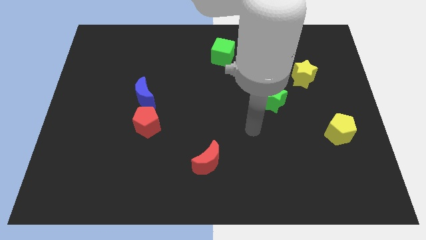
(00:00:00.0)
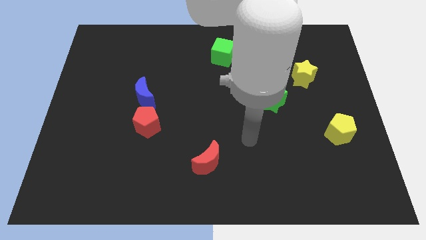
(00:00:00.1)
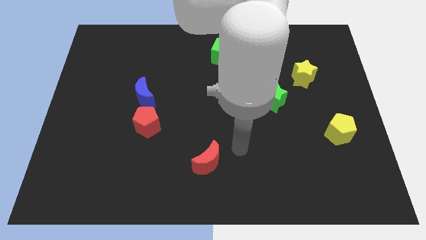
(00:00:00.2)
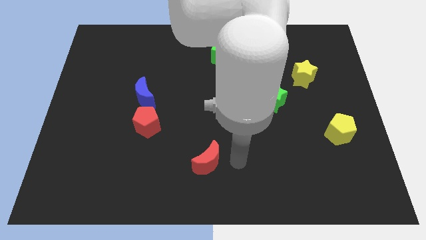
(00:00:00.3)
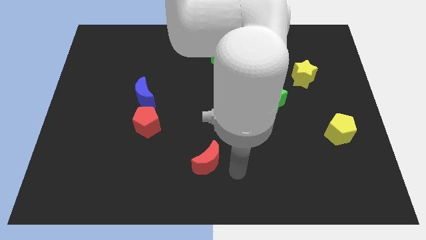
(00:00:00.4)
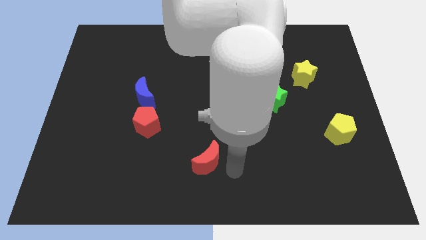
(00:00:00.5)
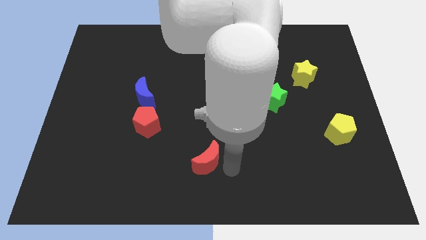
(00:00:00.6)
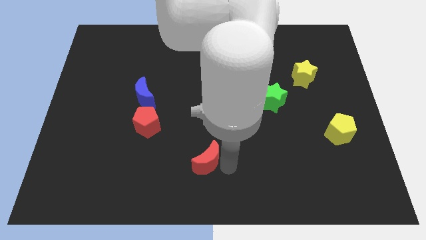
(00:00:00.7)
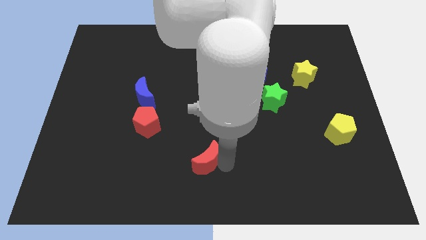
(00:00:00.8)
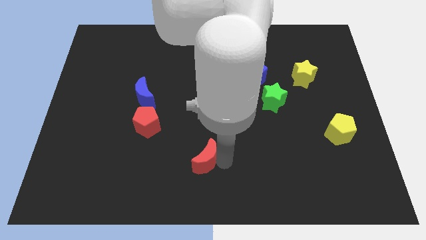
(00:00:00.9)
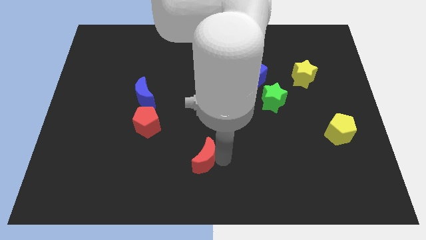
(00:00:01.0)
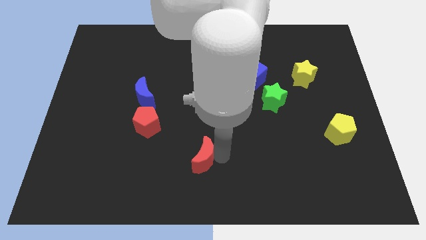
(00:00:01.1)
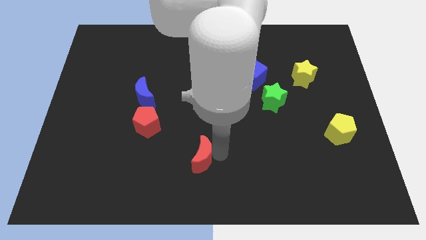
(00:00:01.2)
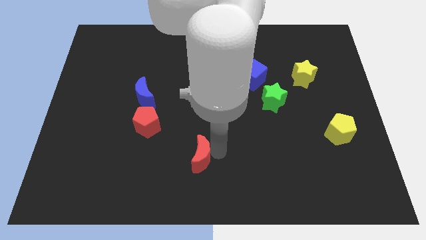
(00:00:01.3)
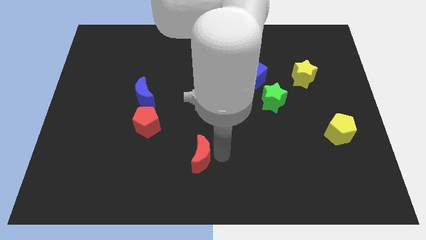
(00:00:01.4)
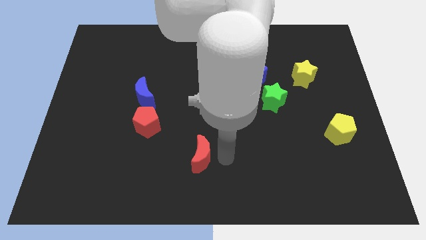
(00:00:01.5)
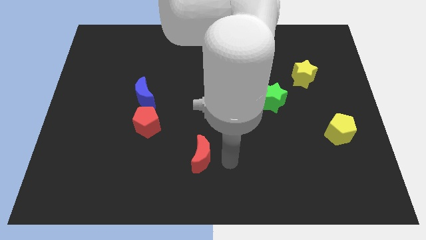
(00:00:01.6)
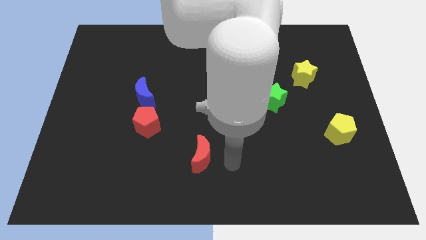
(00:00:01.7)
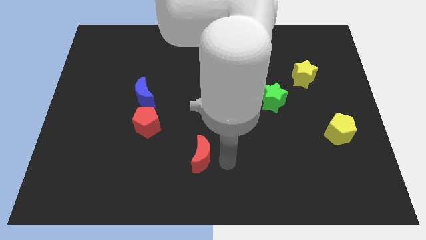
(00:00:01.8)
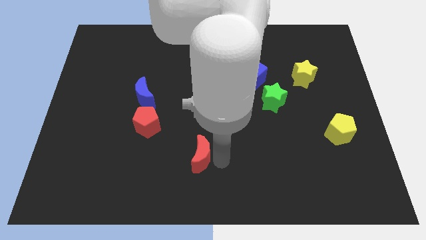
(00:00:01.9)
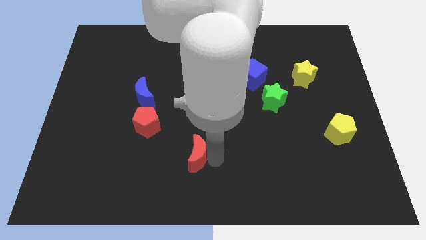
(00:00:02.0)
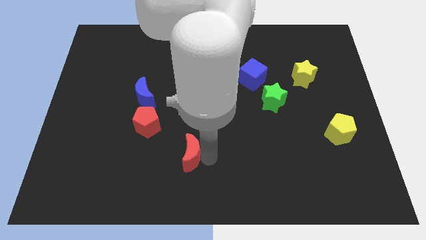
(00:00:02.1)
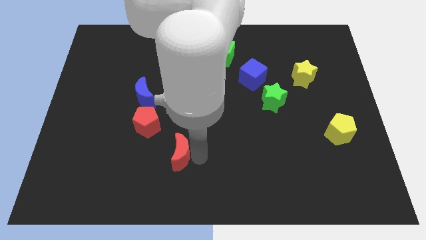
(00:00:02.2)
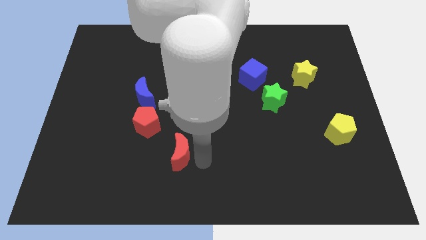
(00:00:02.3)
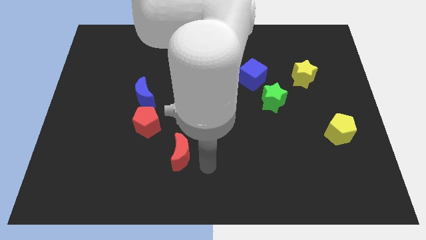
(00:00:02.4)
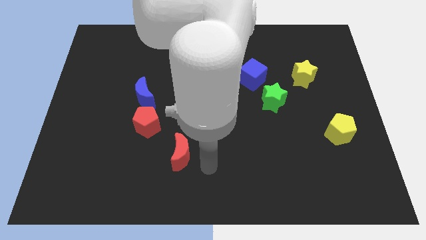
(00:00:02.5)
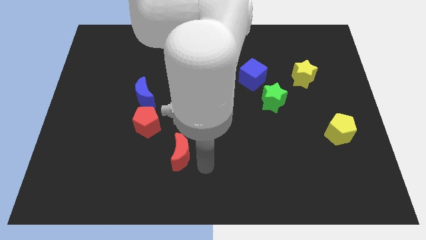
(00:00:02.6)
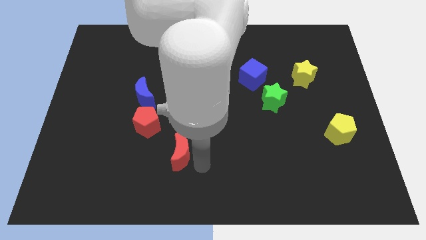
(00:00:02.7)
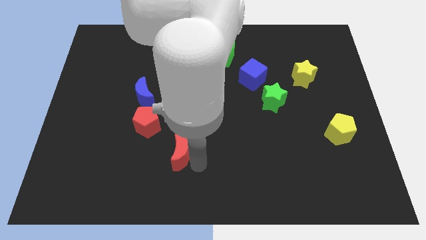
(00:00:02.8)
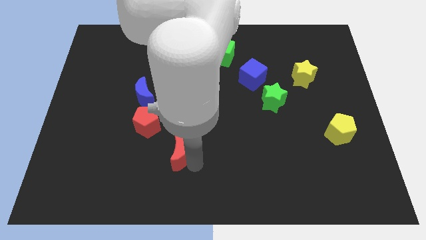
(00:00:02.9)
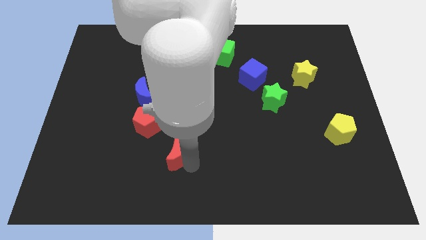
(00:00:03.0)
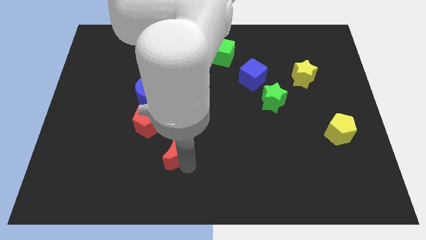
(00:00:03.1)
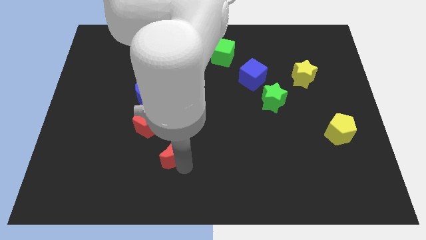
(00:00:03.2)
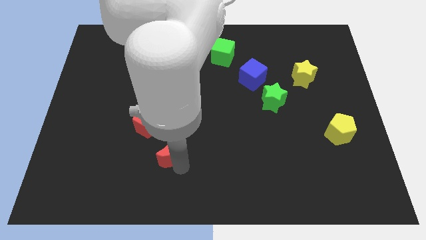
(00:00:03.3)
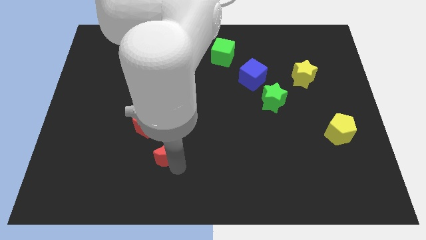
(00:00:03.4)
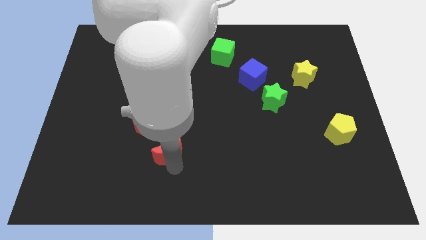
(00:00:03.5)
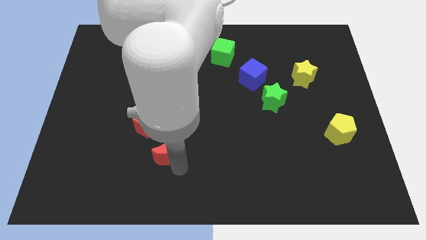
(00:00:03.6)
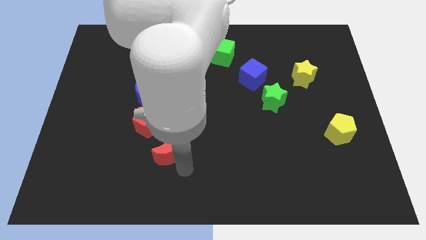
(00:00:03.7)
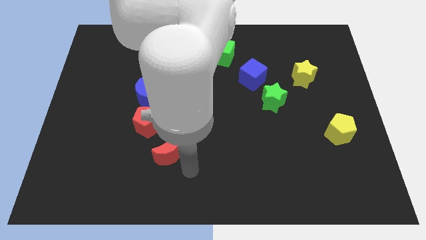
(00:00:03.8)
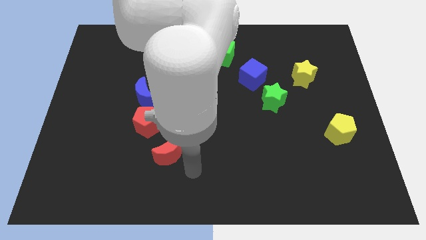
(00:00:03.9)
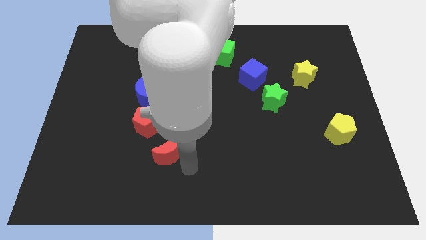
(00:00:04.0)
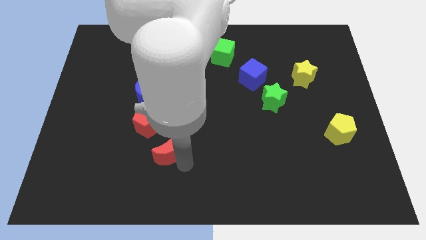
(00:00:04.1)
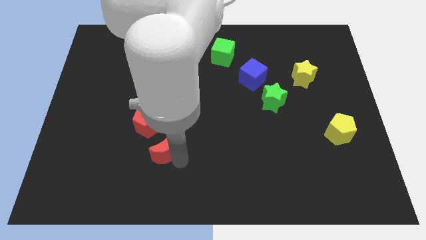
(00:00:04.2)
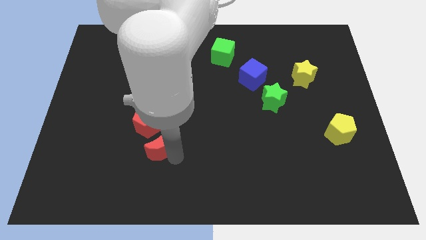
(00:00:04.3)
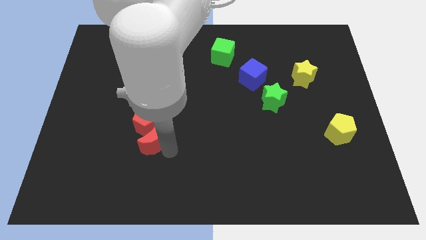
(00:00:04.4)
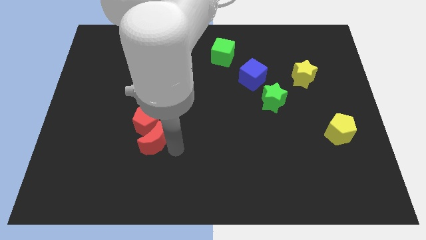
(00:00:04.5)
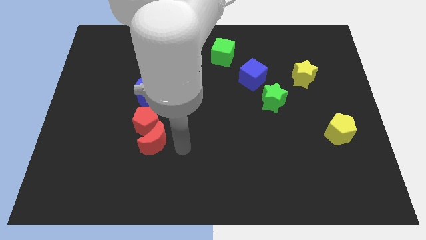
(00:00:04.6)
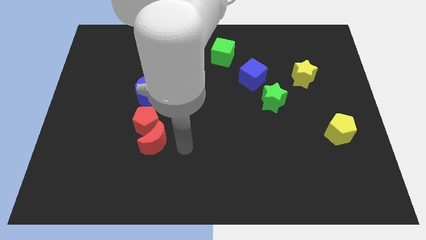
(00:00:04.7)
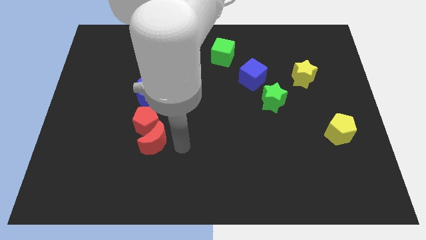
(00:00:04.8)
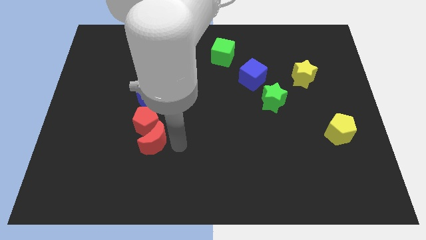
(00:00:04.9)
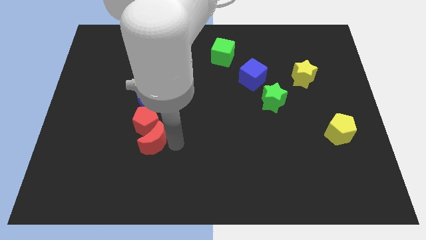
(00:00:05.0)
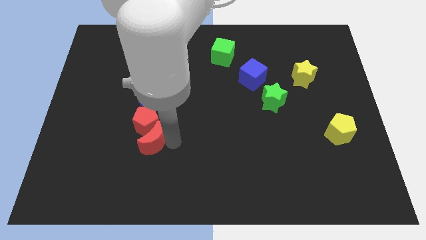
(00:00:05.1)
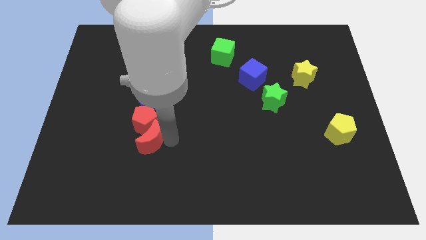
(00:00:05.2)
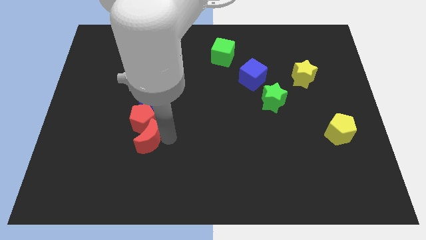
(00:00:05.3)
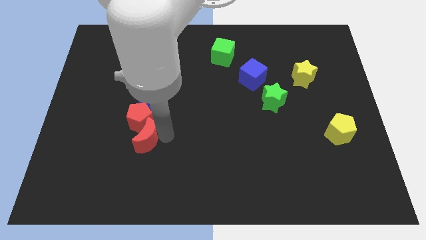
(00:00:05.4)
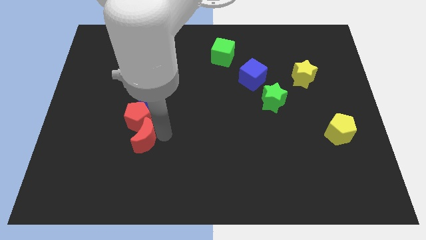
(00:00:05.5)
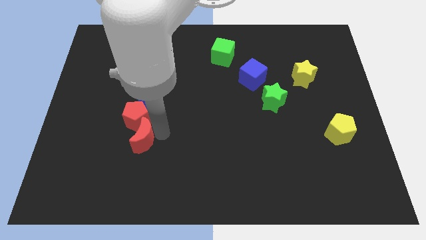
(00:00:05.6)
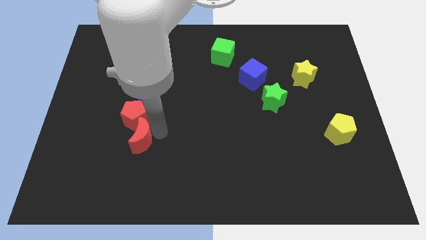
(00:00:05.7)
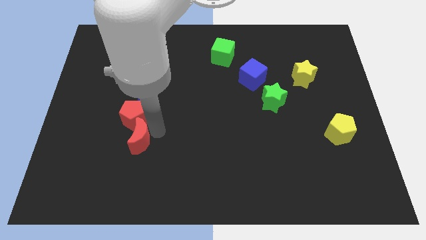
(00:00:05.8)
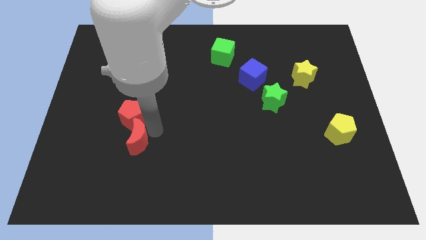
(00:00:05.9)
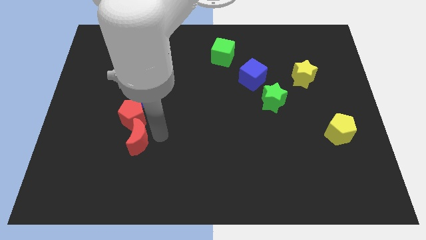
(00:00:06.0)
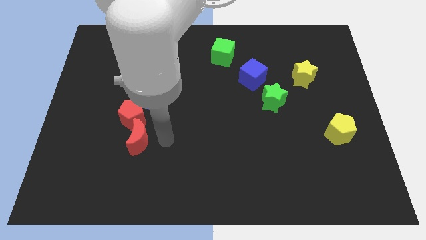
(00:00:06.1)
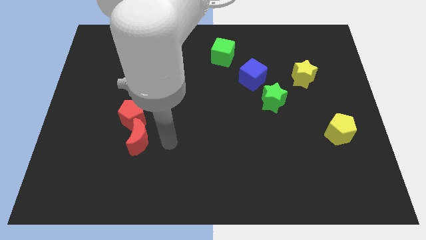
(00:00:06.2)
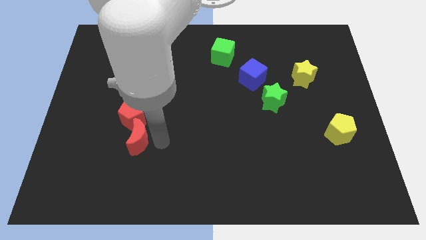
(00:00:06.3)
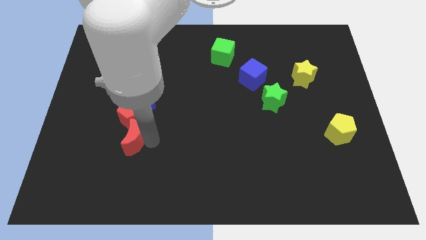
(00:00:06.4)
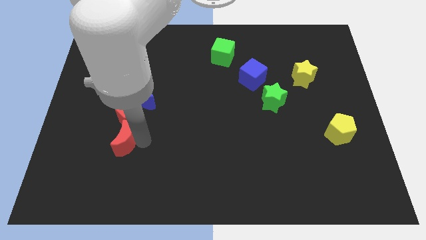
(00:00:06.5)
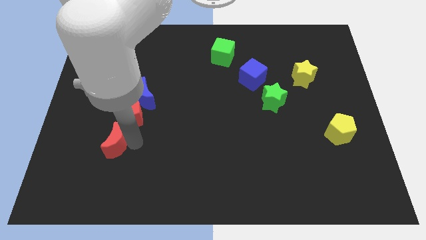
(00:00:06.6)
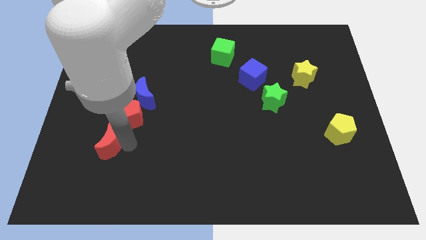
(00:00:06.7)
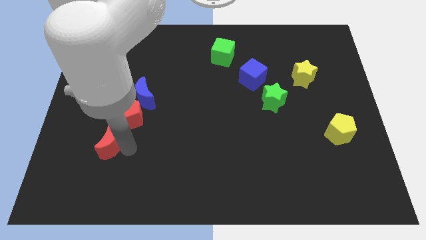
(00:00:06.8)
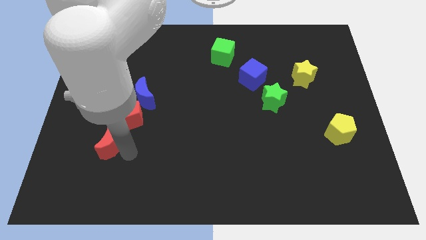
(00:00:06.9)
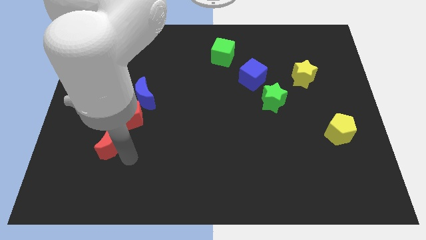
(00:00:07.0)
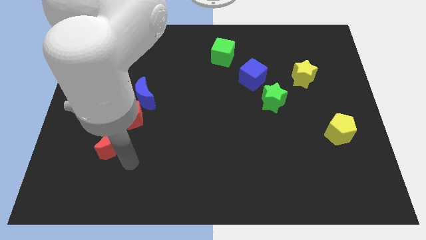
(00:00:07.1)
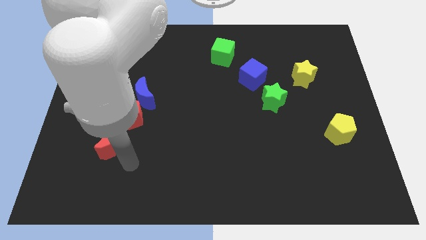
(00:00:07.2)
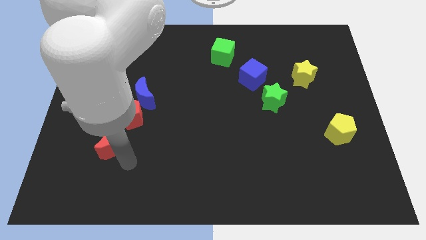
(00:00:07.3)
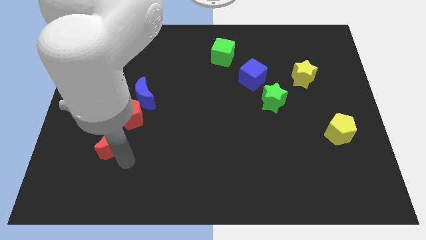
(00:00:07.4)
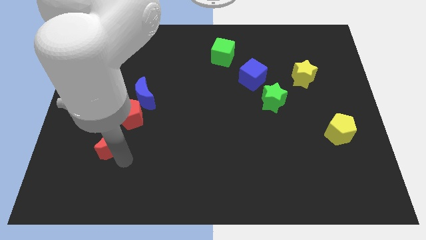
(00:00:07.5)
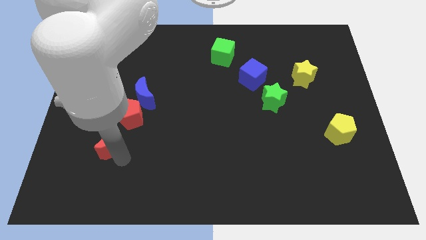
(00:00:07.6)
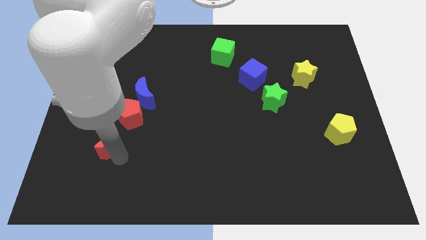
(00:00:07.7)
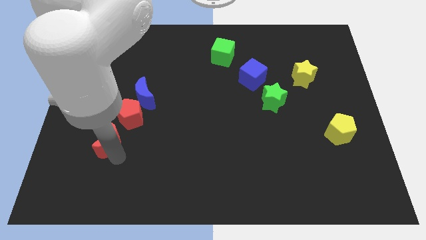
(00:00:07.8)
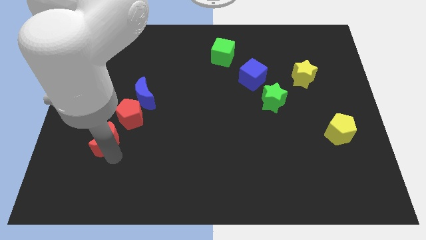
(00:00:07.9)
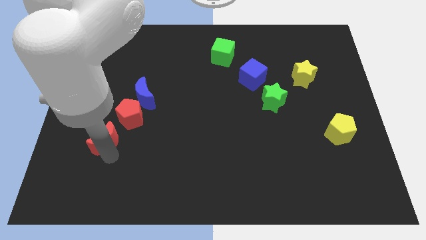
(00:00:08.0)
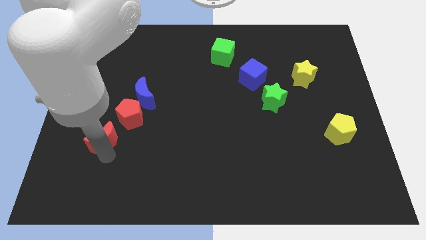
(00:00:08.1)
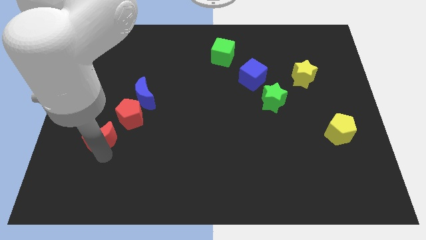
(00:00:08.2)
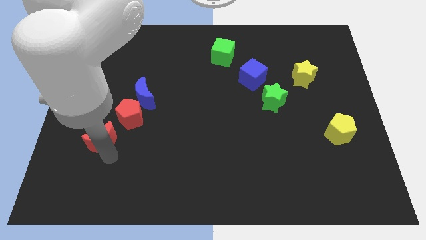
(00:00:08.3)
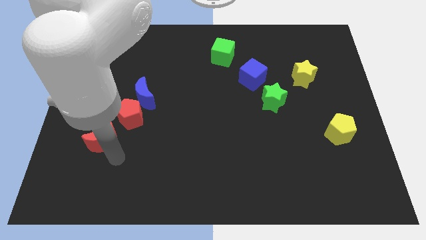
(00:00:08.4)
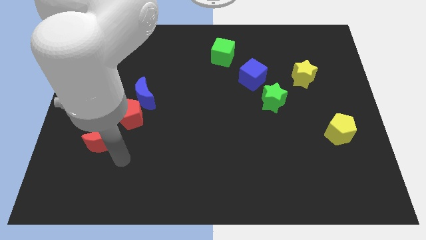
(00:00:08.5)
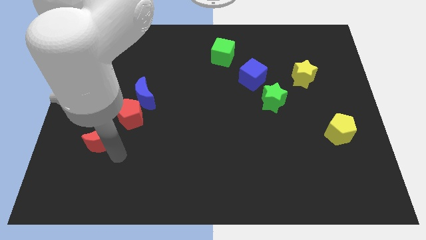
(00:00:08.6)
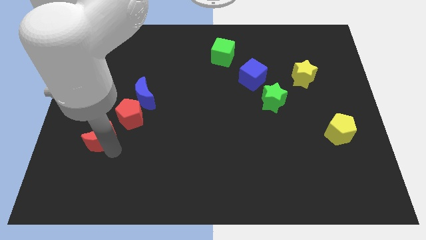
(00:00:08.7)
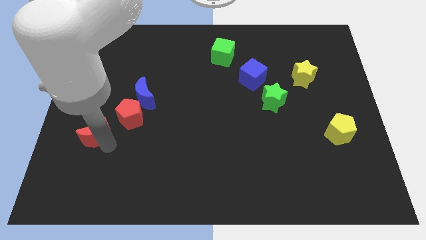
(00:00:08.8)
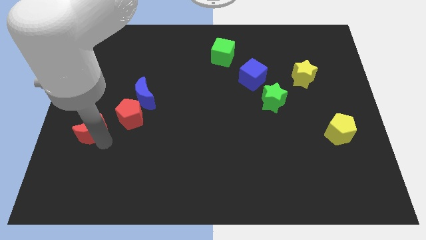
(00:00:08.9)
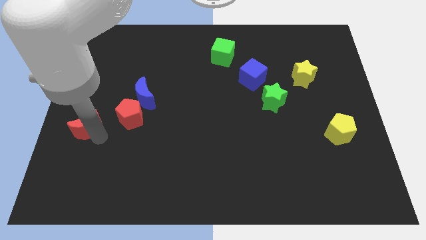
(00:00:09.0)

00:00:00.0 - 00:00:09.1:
move the red moon to the center left
